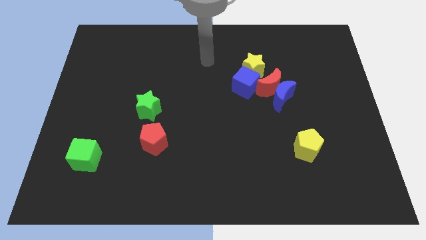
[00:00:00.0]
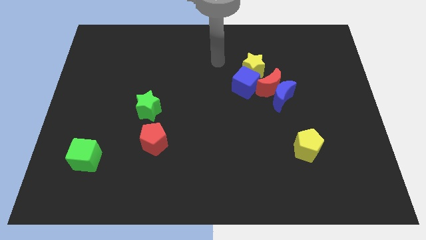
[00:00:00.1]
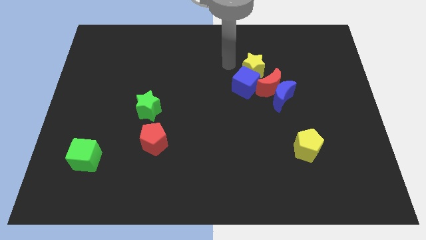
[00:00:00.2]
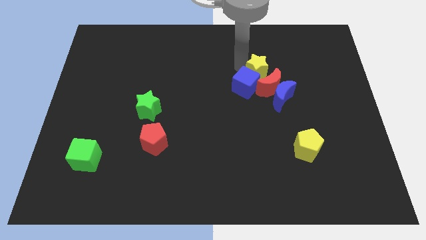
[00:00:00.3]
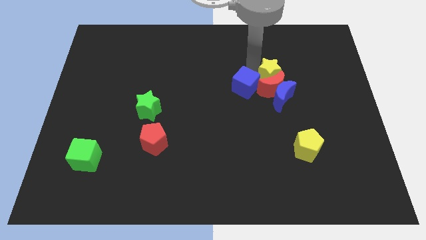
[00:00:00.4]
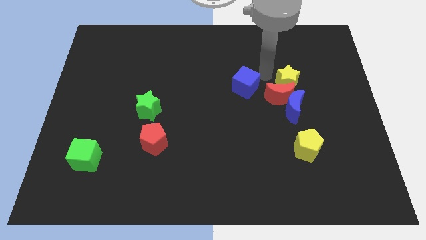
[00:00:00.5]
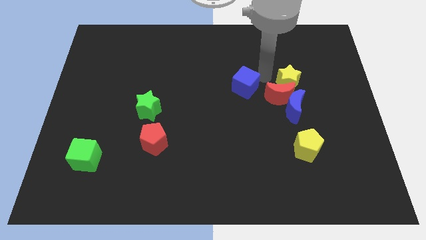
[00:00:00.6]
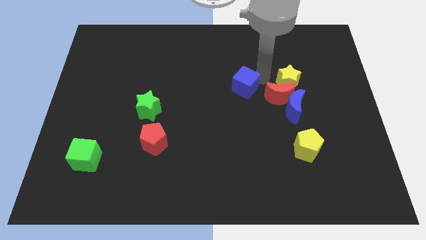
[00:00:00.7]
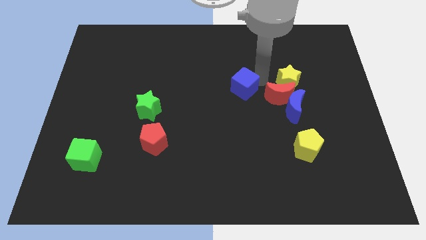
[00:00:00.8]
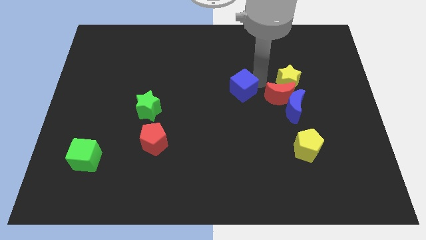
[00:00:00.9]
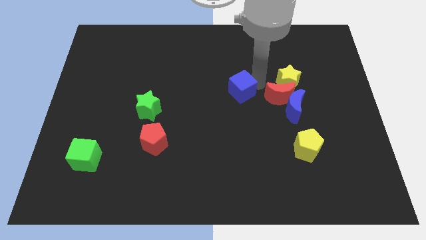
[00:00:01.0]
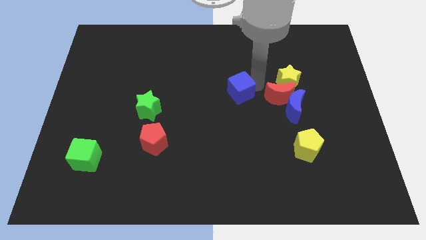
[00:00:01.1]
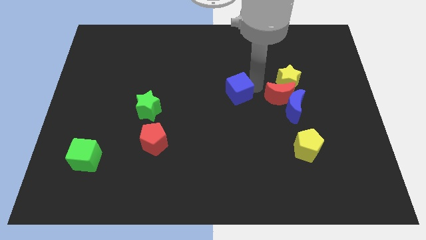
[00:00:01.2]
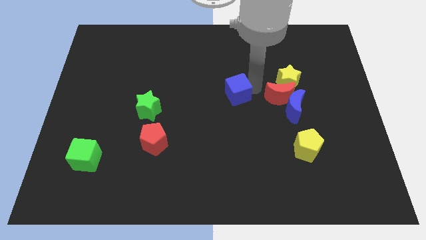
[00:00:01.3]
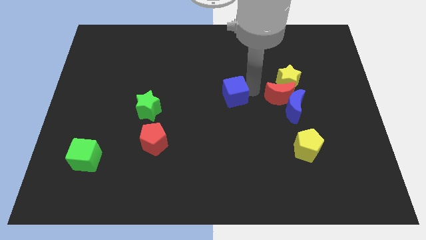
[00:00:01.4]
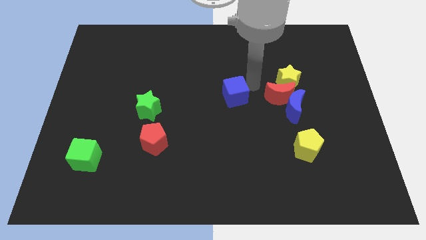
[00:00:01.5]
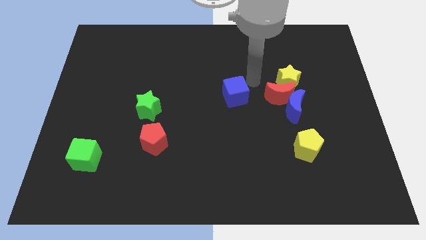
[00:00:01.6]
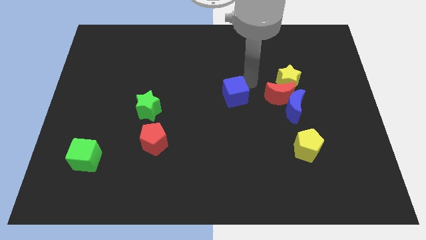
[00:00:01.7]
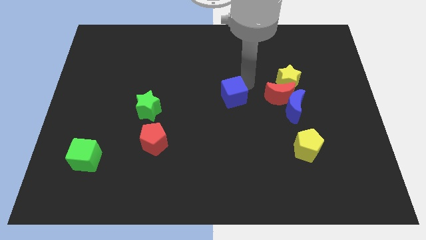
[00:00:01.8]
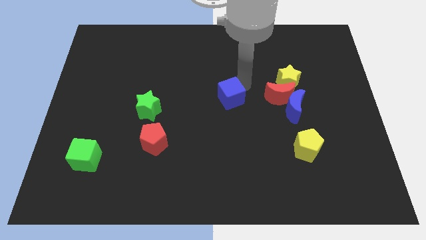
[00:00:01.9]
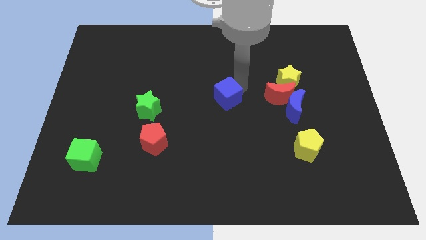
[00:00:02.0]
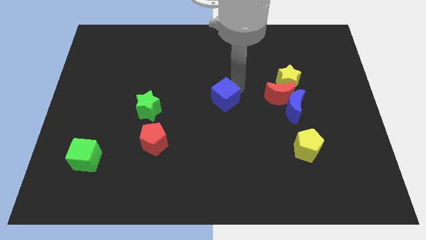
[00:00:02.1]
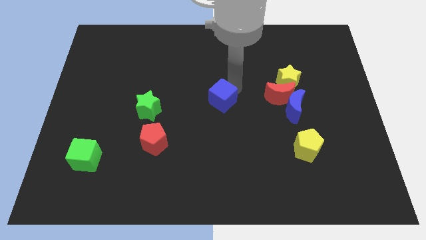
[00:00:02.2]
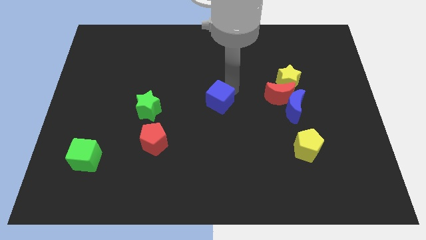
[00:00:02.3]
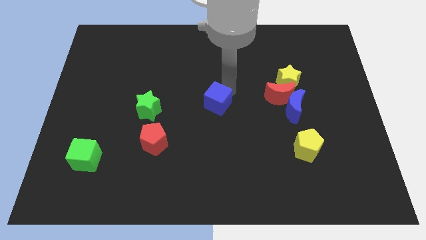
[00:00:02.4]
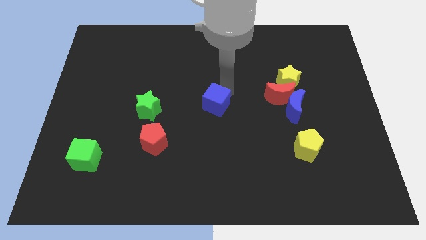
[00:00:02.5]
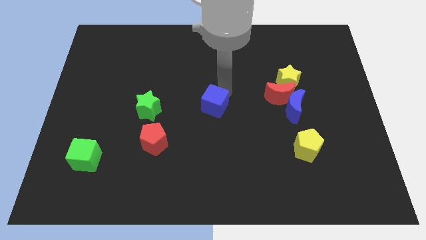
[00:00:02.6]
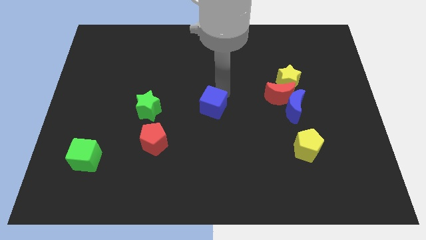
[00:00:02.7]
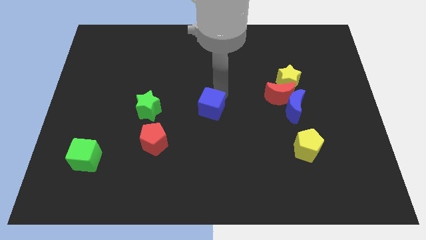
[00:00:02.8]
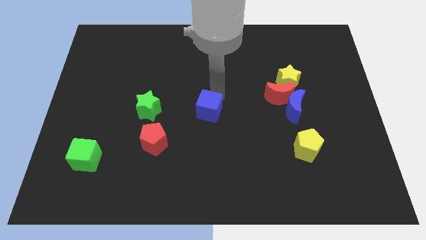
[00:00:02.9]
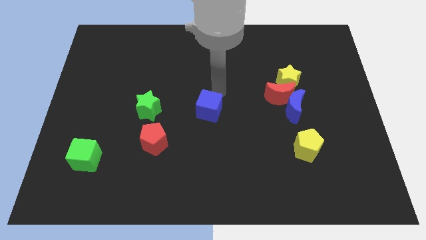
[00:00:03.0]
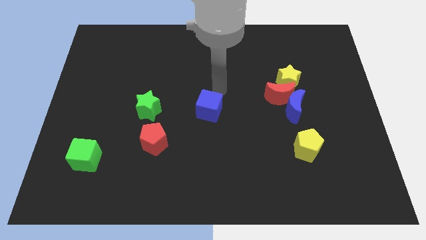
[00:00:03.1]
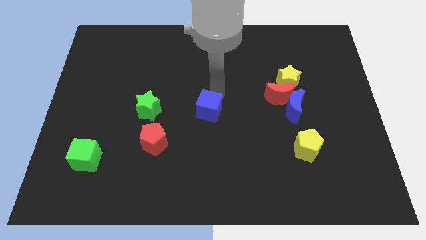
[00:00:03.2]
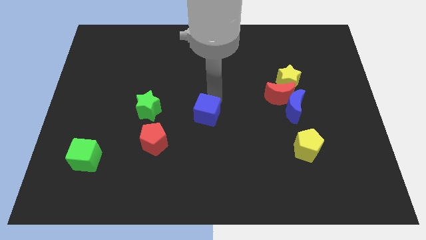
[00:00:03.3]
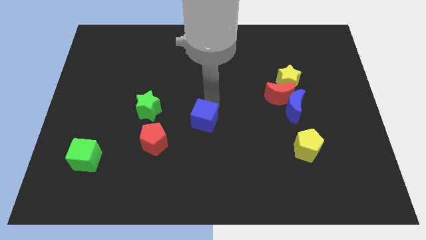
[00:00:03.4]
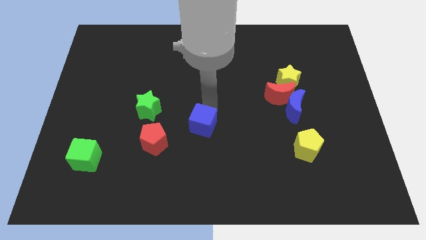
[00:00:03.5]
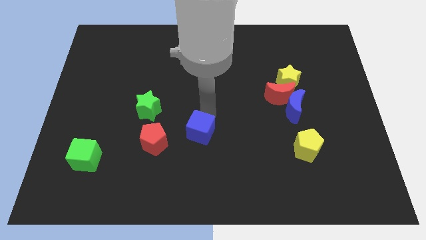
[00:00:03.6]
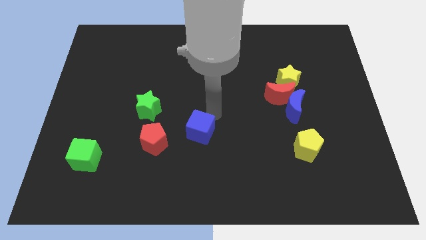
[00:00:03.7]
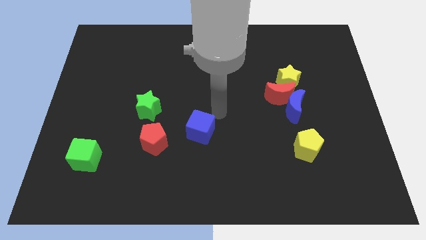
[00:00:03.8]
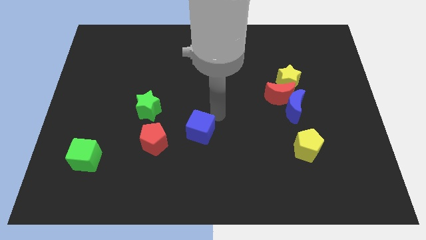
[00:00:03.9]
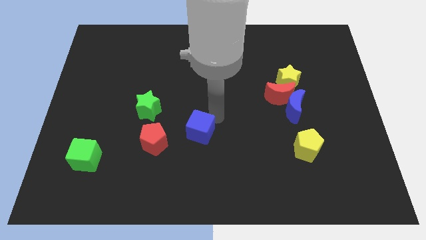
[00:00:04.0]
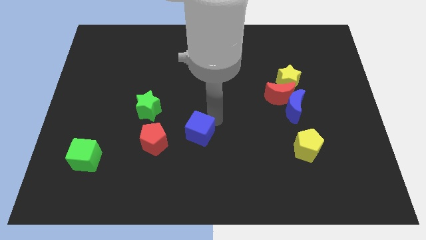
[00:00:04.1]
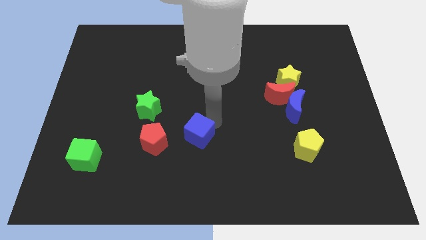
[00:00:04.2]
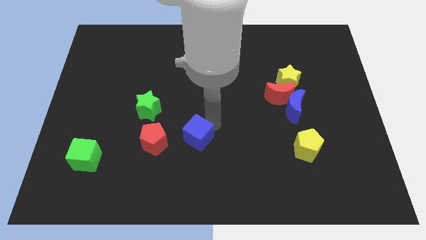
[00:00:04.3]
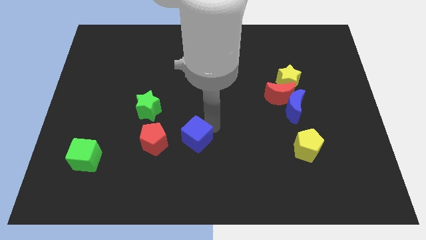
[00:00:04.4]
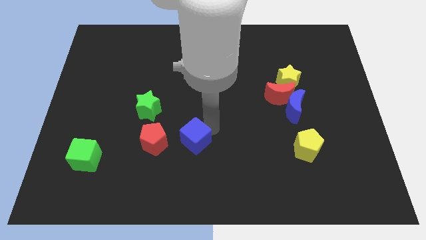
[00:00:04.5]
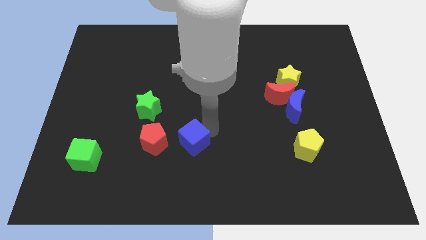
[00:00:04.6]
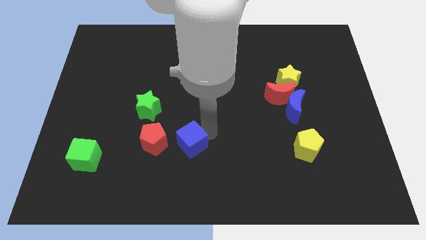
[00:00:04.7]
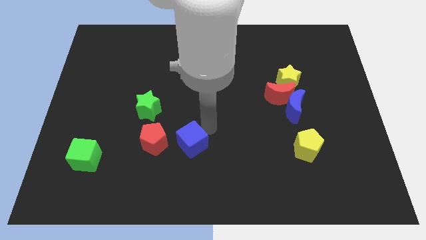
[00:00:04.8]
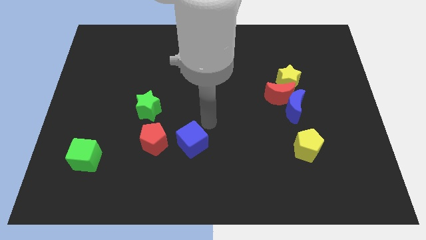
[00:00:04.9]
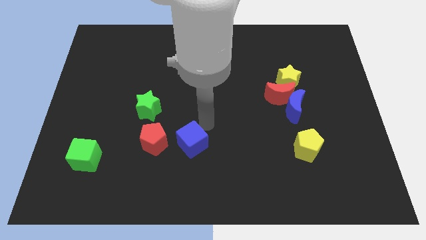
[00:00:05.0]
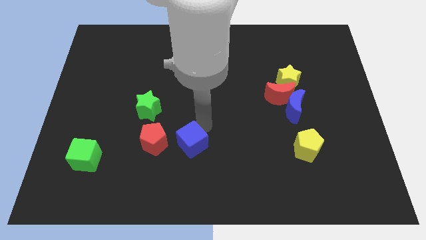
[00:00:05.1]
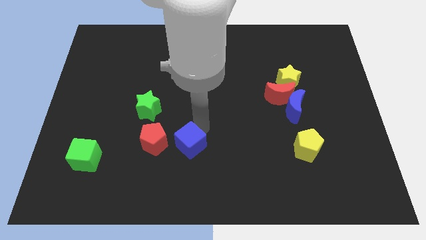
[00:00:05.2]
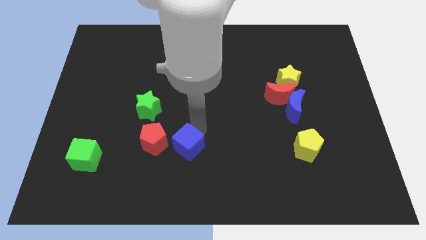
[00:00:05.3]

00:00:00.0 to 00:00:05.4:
slide the blue cube diagonally down and to the right of the red pentagon

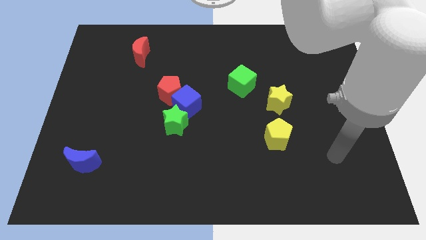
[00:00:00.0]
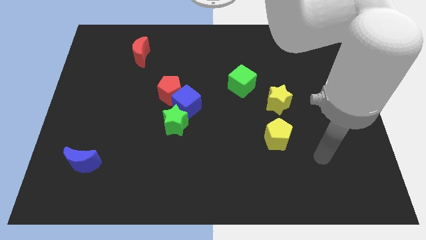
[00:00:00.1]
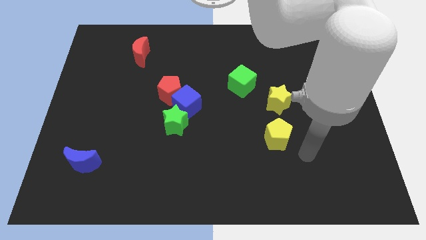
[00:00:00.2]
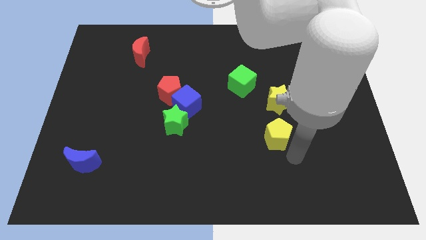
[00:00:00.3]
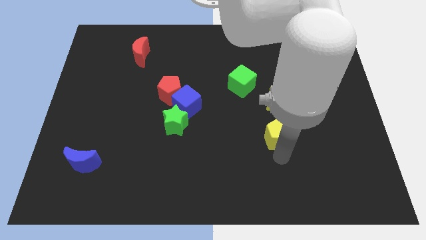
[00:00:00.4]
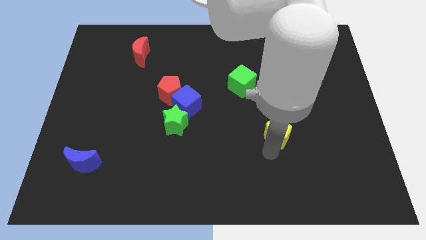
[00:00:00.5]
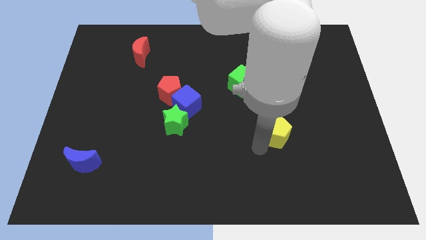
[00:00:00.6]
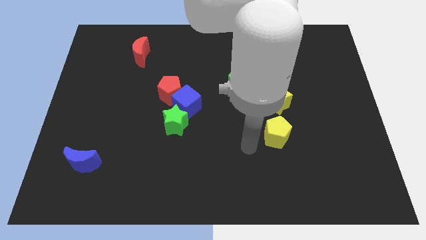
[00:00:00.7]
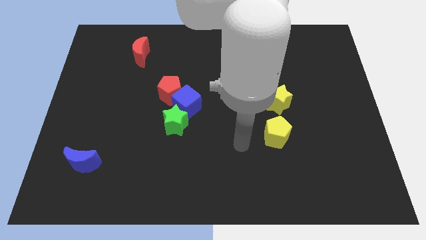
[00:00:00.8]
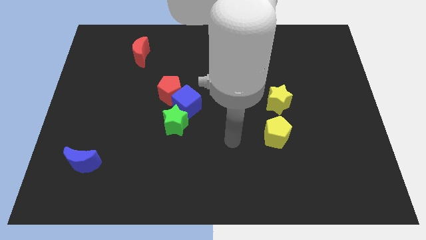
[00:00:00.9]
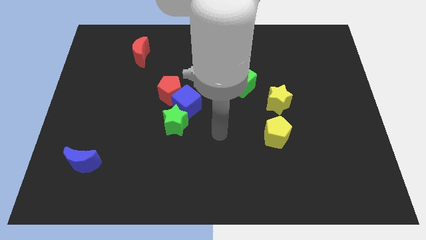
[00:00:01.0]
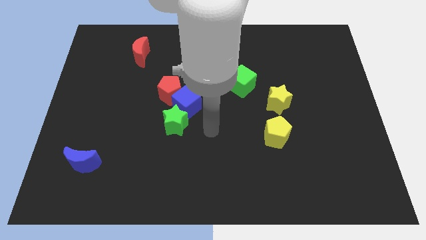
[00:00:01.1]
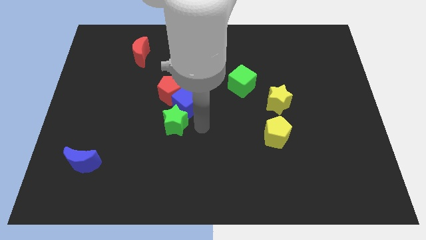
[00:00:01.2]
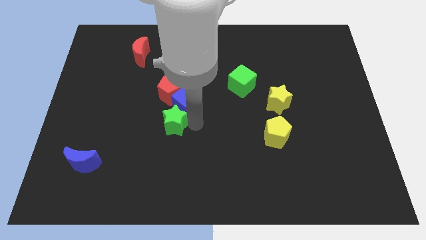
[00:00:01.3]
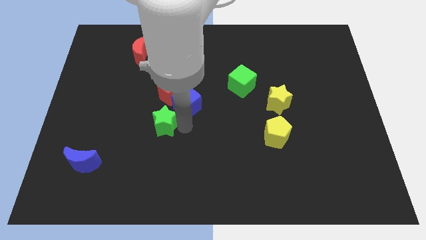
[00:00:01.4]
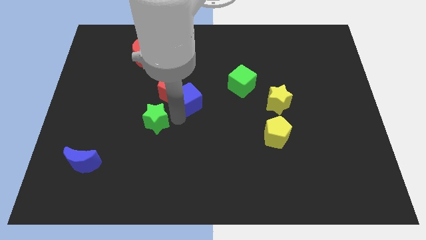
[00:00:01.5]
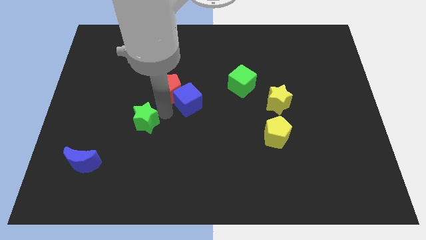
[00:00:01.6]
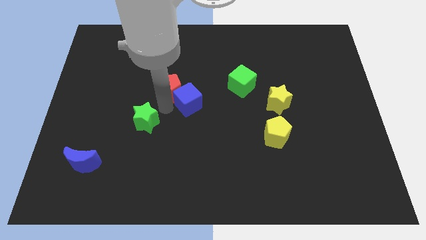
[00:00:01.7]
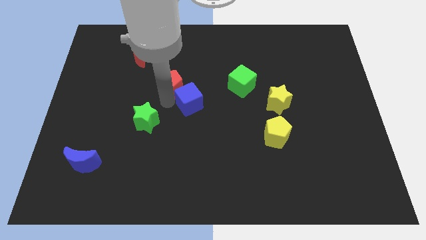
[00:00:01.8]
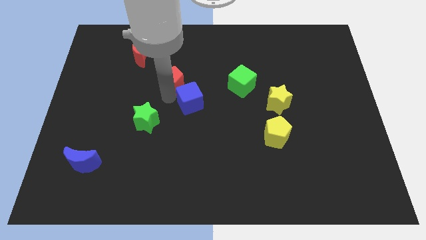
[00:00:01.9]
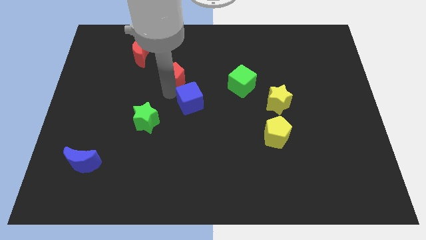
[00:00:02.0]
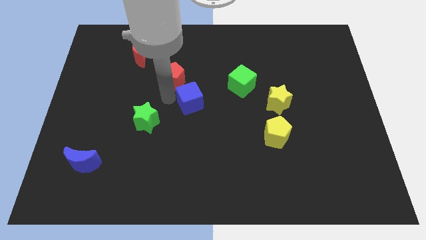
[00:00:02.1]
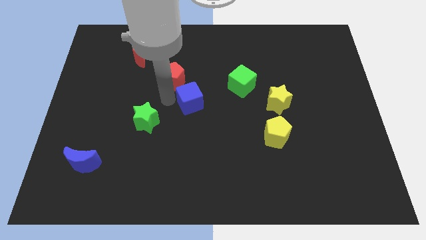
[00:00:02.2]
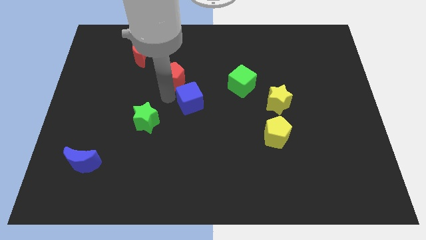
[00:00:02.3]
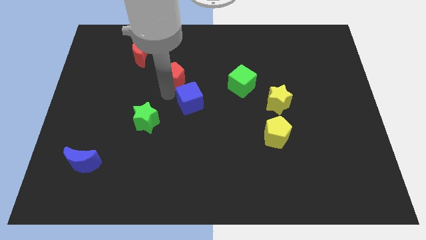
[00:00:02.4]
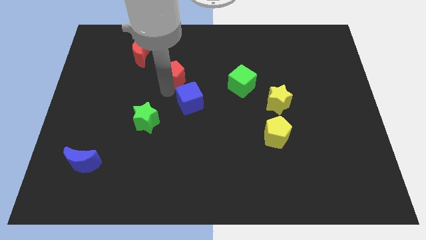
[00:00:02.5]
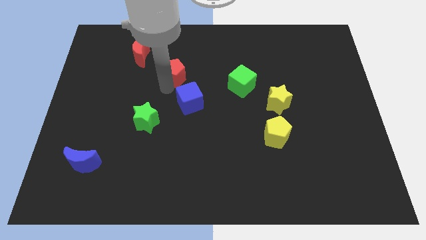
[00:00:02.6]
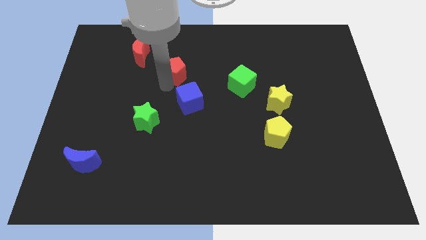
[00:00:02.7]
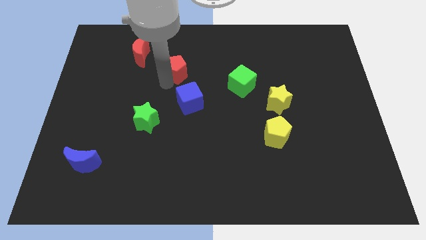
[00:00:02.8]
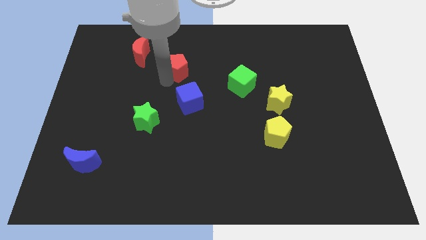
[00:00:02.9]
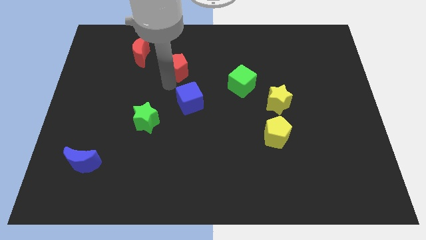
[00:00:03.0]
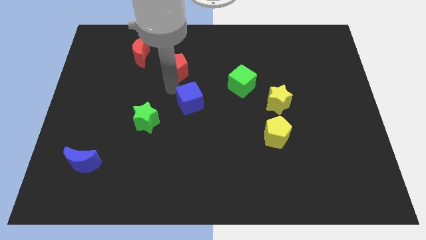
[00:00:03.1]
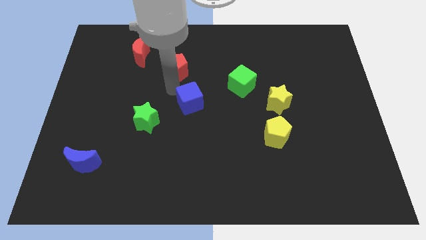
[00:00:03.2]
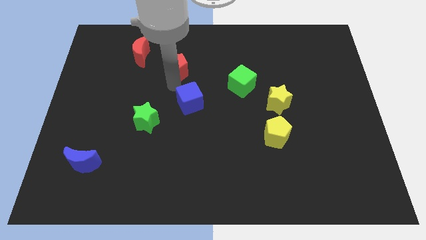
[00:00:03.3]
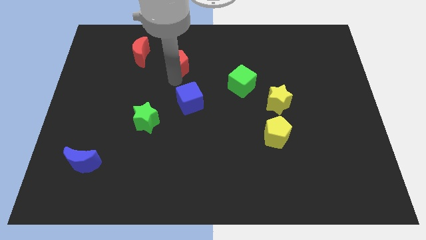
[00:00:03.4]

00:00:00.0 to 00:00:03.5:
slide the red pentagon just right of the red moon
